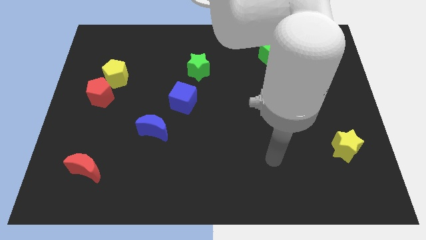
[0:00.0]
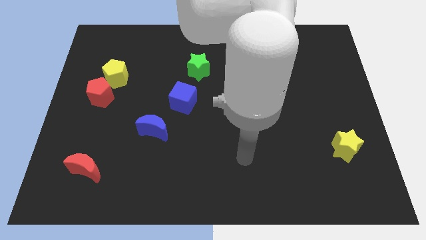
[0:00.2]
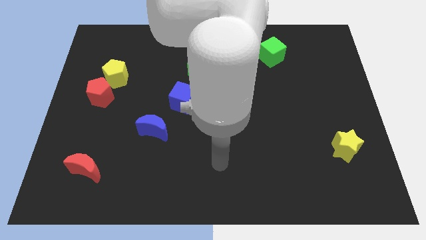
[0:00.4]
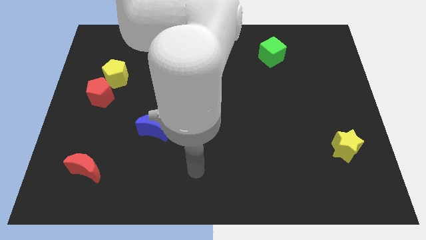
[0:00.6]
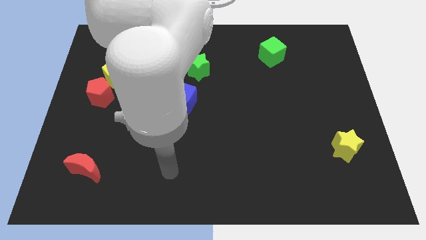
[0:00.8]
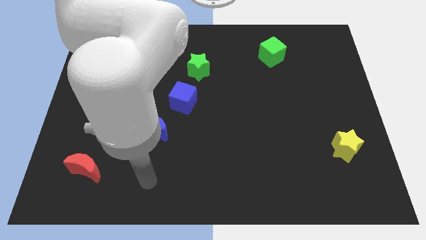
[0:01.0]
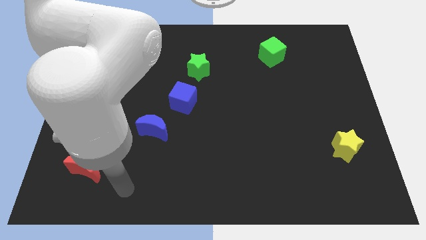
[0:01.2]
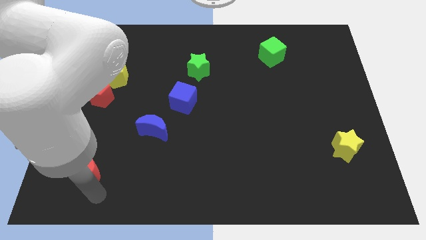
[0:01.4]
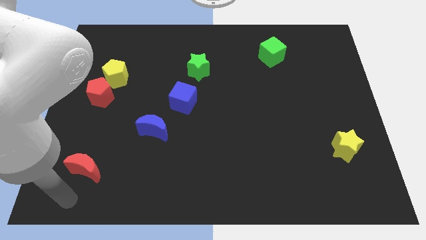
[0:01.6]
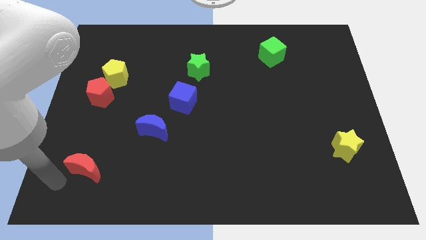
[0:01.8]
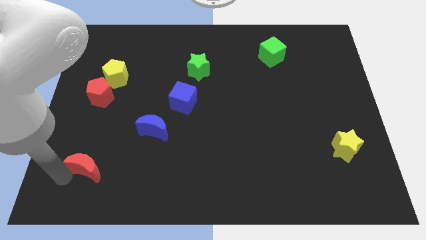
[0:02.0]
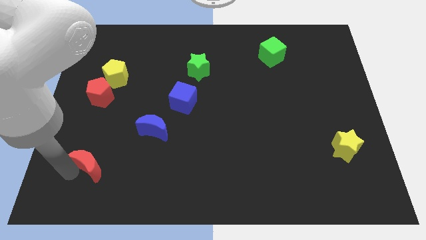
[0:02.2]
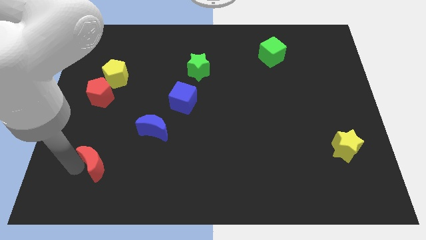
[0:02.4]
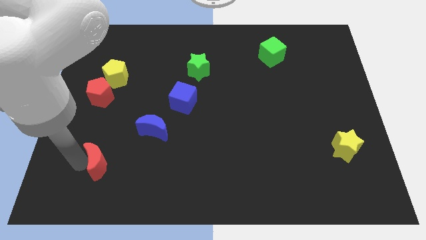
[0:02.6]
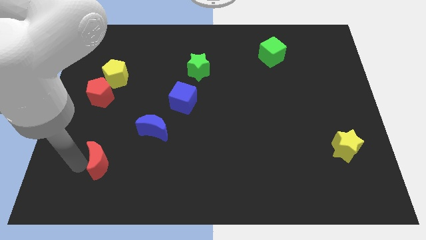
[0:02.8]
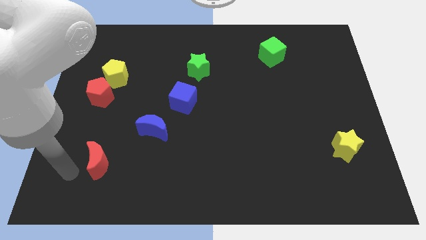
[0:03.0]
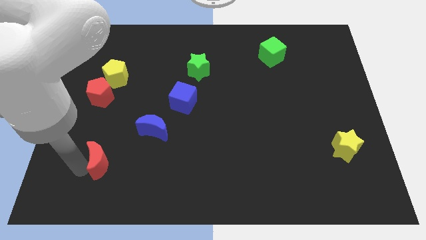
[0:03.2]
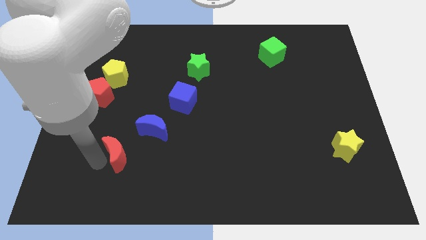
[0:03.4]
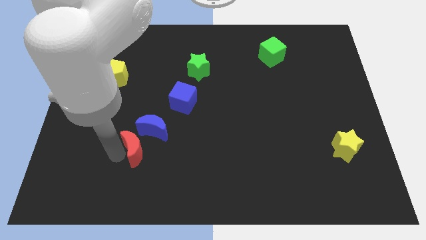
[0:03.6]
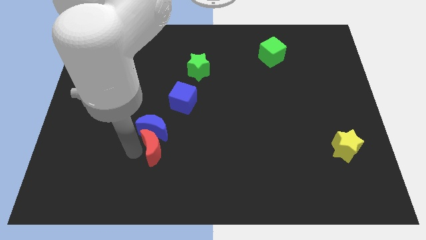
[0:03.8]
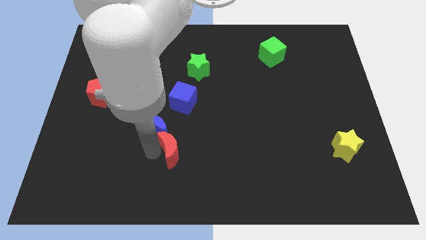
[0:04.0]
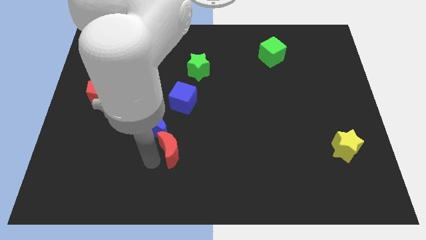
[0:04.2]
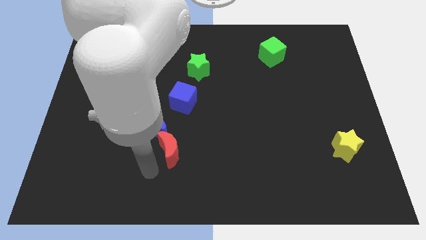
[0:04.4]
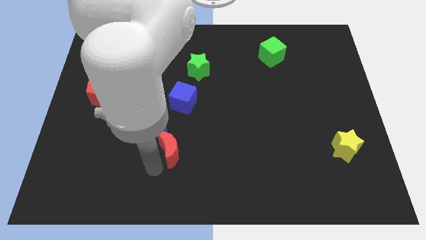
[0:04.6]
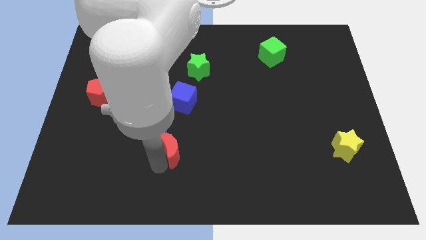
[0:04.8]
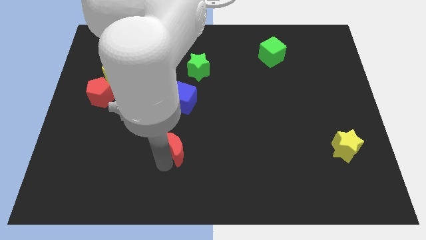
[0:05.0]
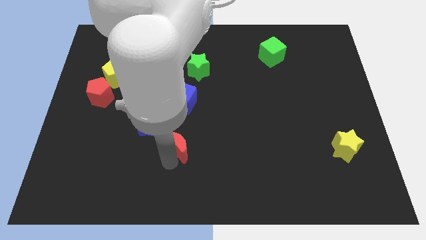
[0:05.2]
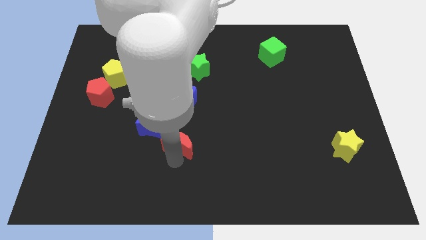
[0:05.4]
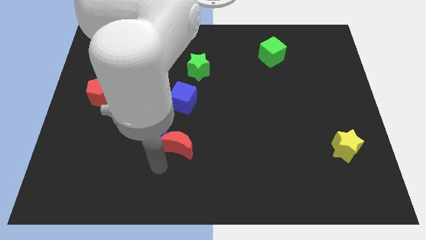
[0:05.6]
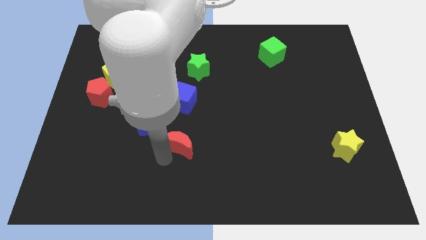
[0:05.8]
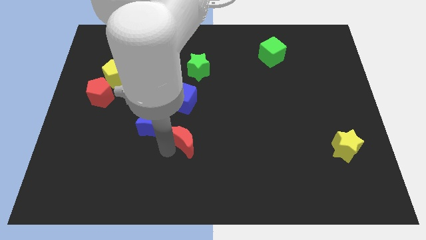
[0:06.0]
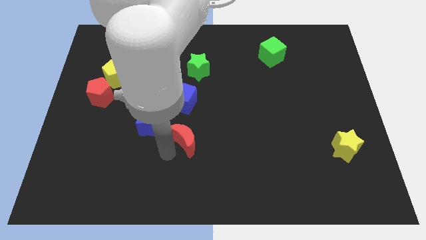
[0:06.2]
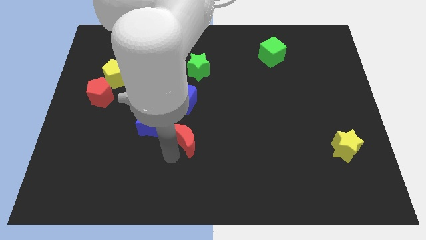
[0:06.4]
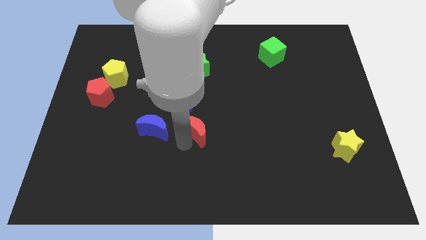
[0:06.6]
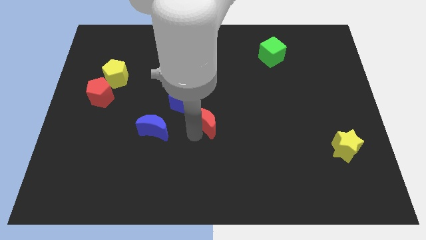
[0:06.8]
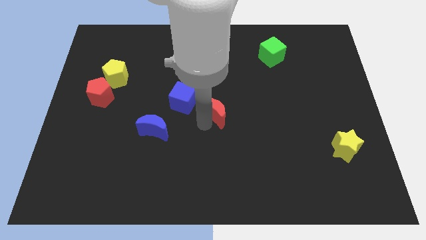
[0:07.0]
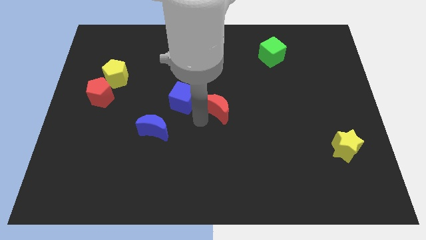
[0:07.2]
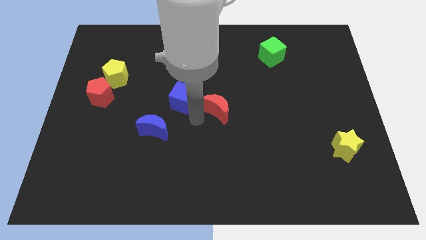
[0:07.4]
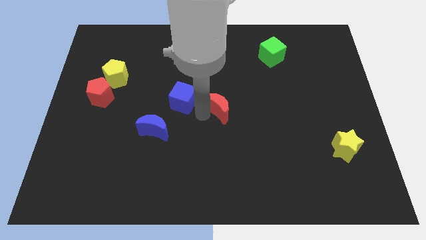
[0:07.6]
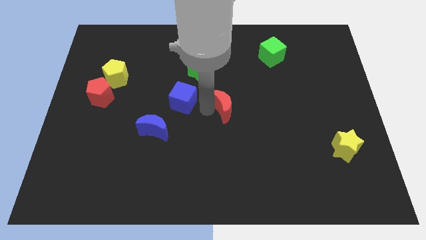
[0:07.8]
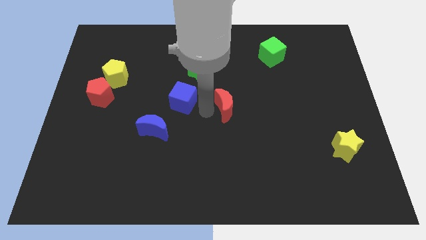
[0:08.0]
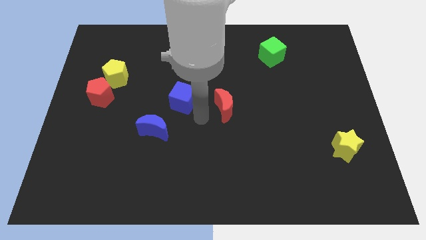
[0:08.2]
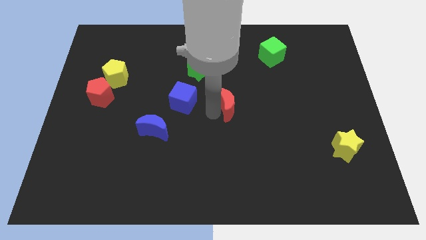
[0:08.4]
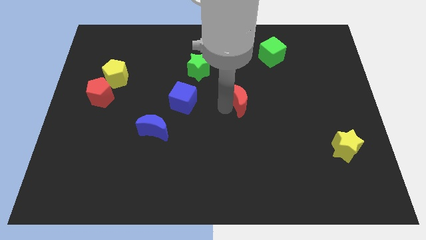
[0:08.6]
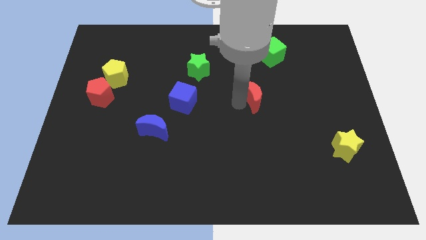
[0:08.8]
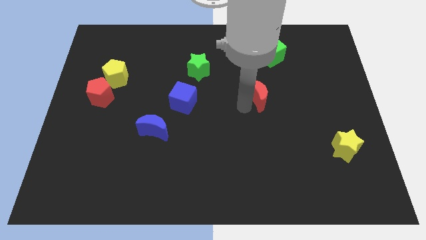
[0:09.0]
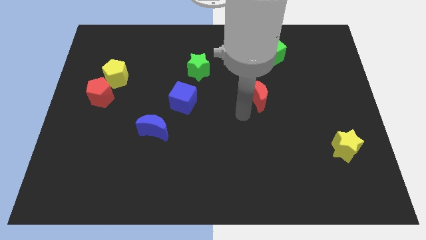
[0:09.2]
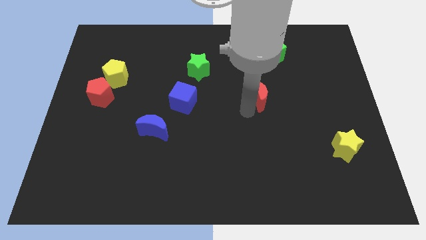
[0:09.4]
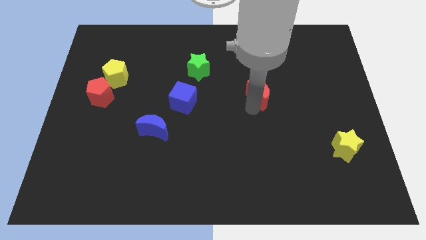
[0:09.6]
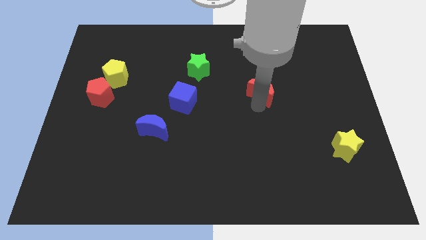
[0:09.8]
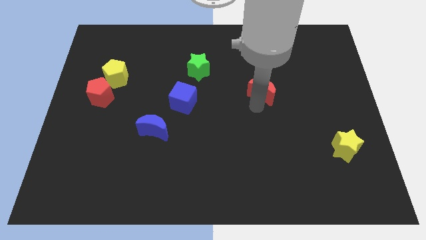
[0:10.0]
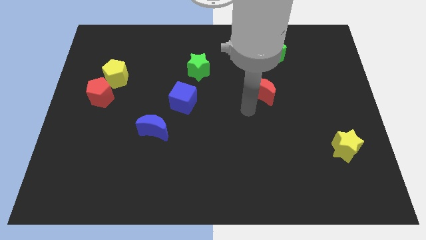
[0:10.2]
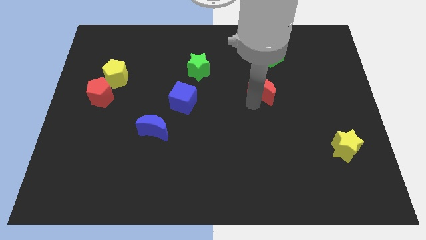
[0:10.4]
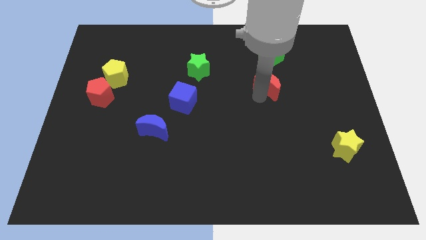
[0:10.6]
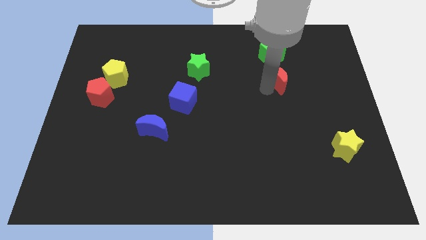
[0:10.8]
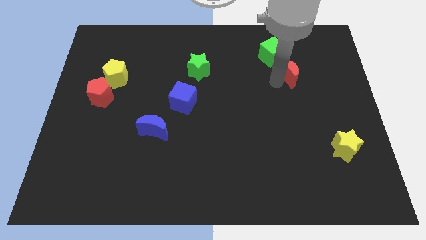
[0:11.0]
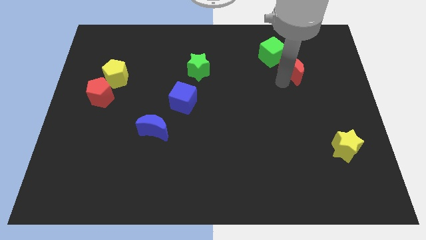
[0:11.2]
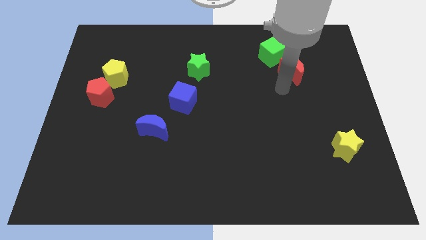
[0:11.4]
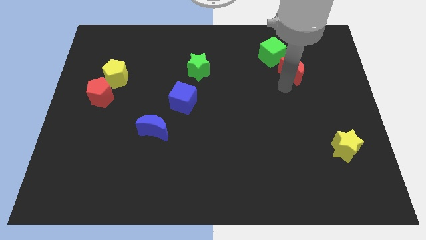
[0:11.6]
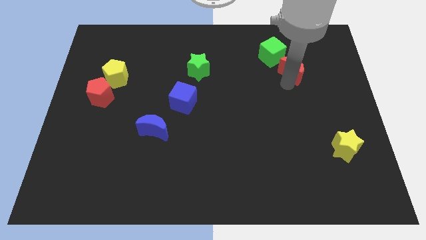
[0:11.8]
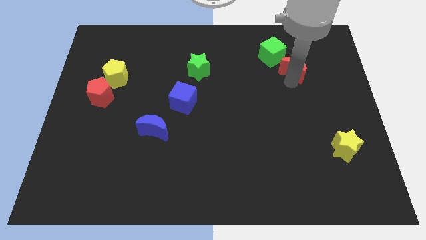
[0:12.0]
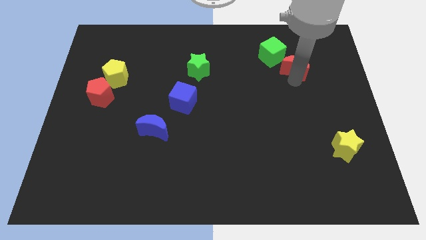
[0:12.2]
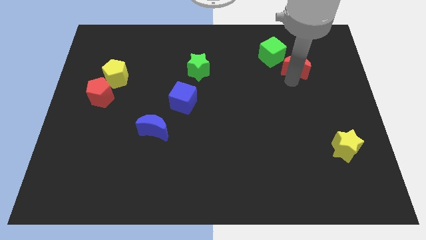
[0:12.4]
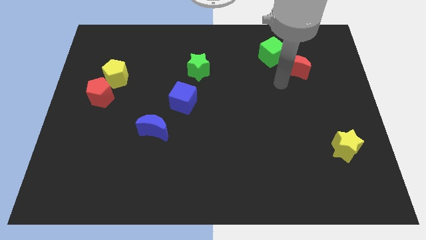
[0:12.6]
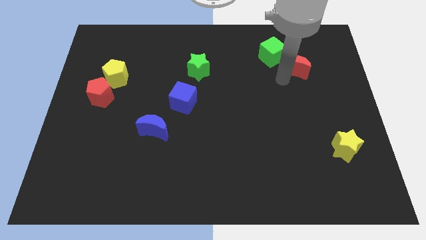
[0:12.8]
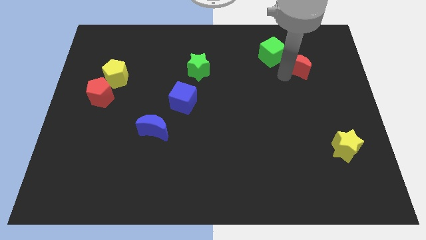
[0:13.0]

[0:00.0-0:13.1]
slide the red moon right of the green cube

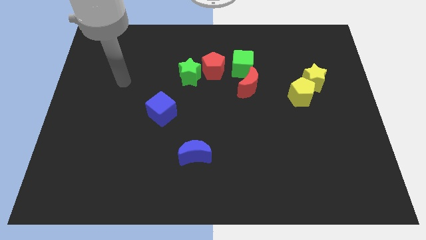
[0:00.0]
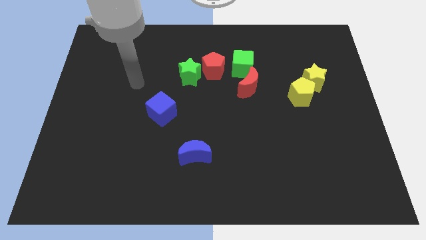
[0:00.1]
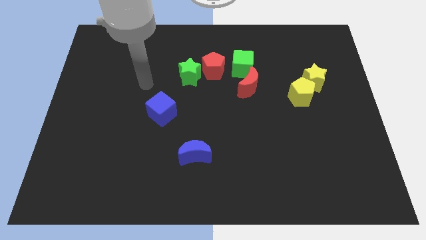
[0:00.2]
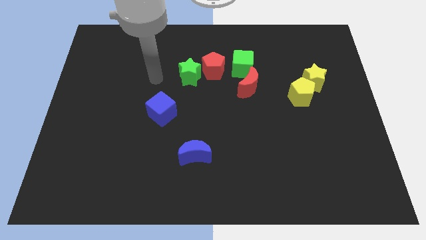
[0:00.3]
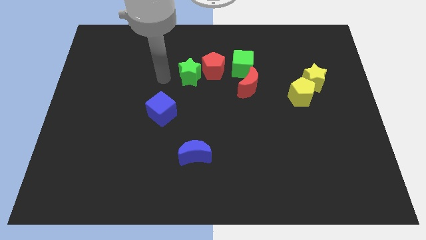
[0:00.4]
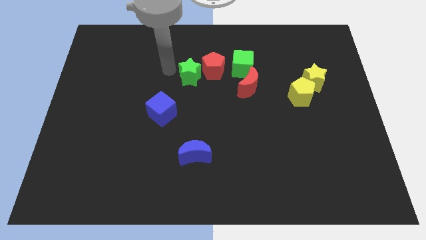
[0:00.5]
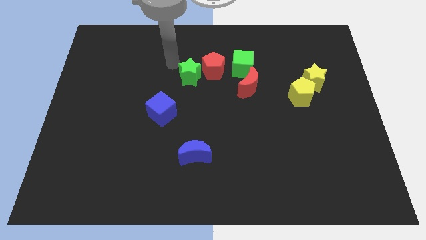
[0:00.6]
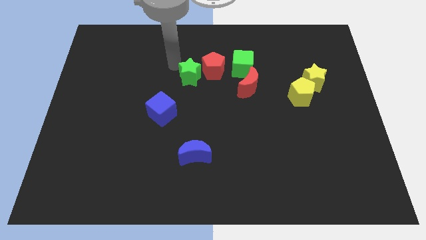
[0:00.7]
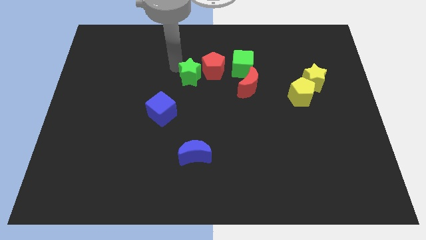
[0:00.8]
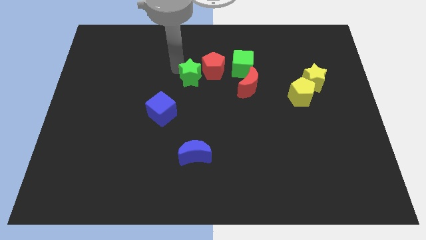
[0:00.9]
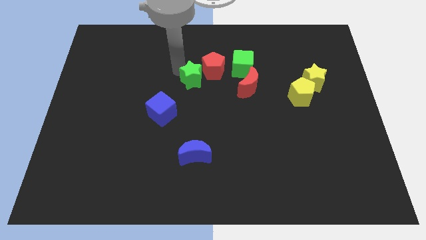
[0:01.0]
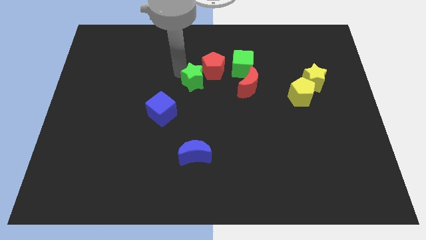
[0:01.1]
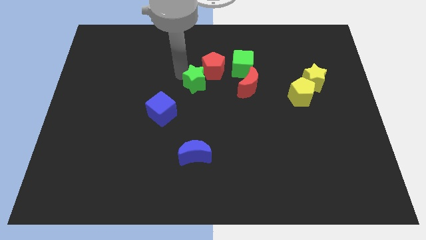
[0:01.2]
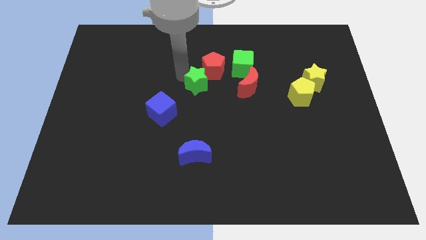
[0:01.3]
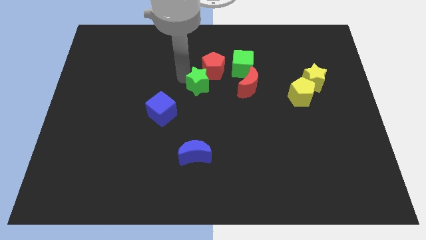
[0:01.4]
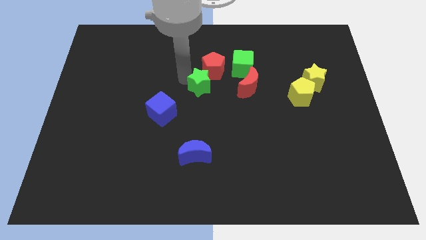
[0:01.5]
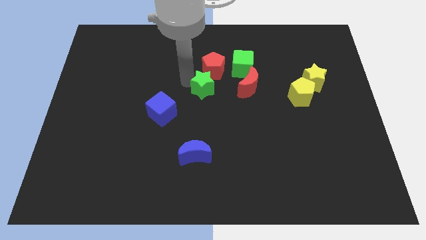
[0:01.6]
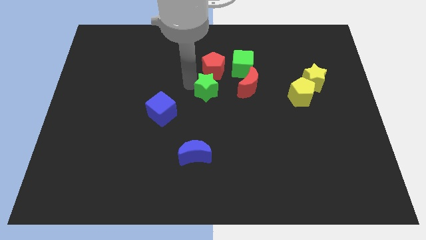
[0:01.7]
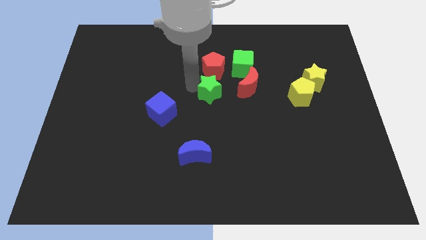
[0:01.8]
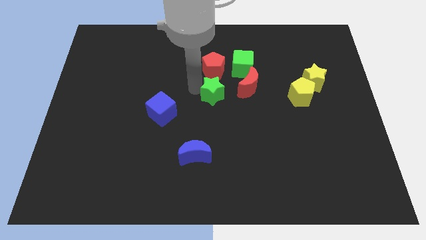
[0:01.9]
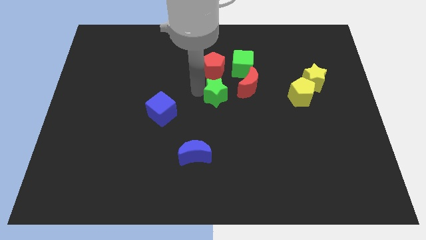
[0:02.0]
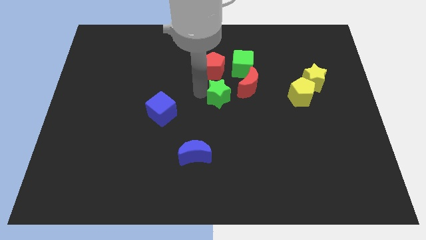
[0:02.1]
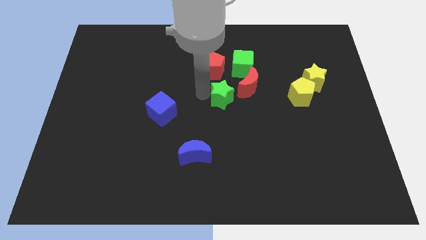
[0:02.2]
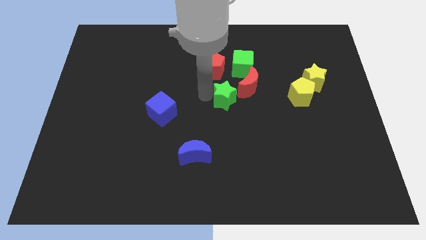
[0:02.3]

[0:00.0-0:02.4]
push the green star to the bottom side of the green cube

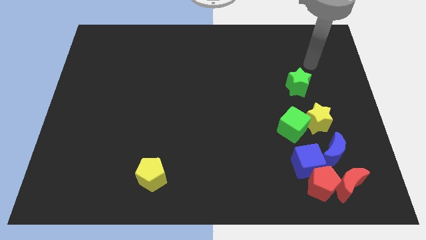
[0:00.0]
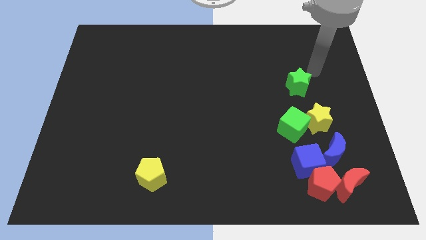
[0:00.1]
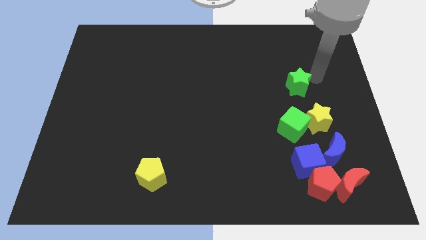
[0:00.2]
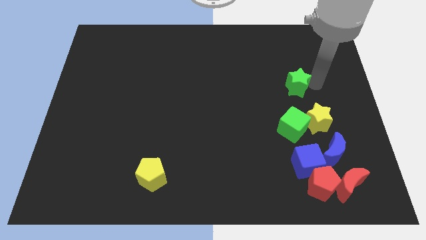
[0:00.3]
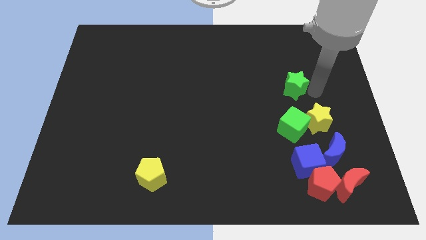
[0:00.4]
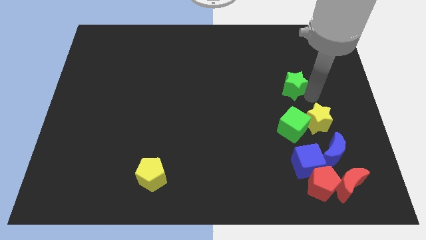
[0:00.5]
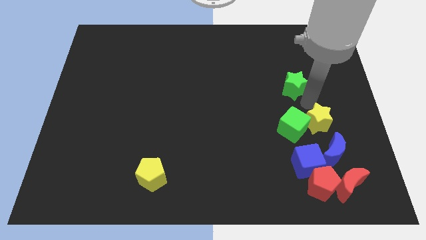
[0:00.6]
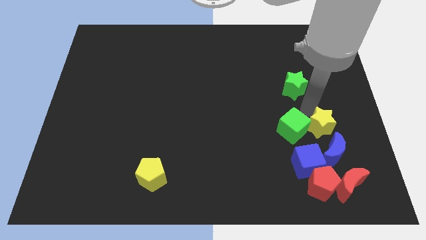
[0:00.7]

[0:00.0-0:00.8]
slide the green cube to the top left of the blue cube
